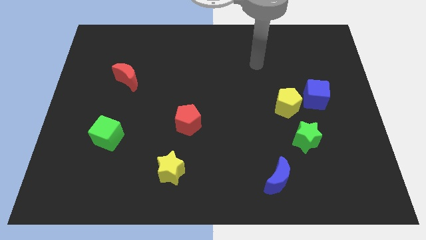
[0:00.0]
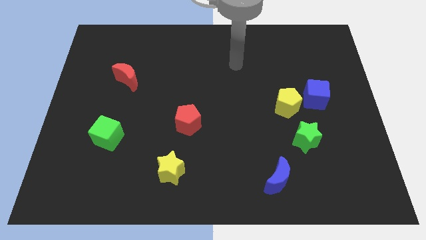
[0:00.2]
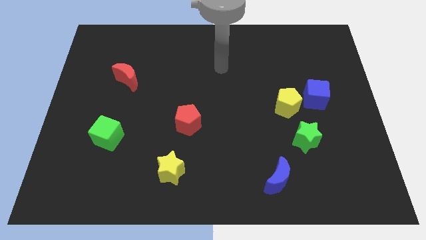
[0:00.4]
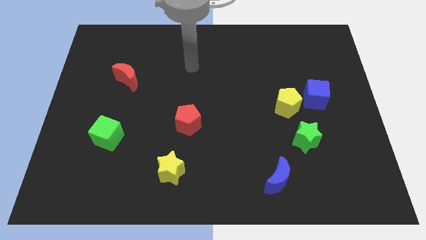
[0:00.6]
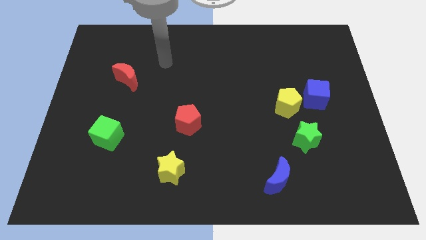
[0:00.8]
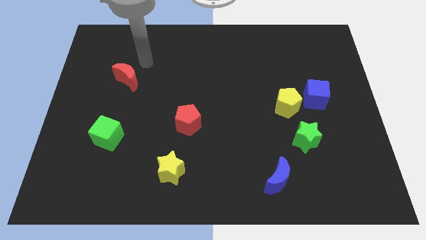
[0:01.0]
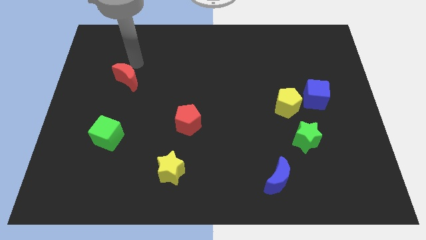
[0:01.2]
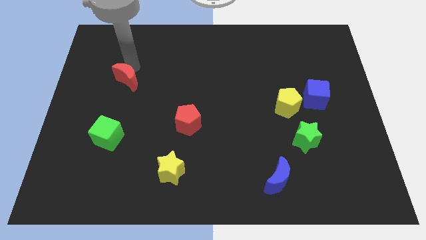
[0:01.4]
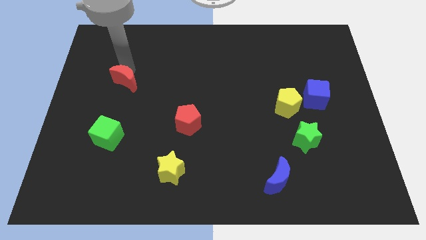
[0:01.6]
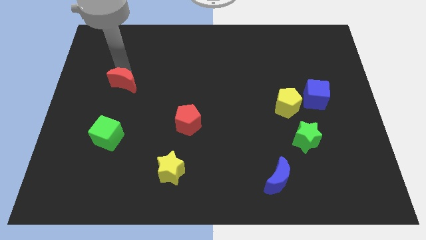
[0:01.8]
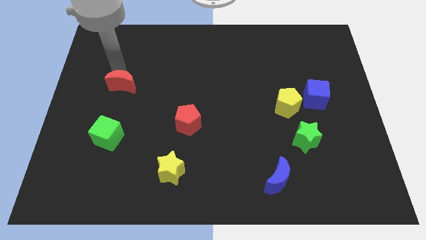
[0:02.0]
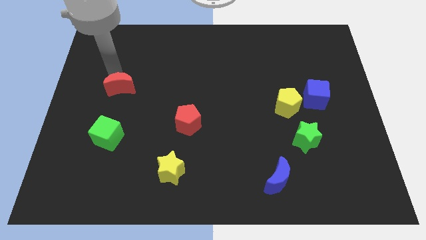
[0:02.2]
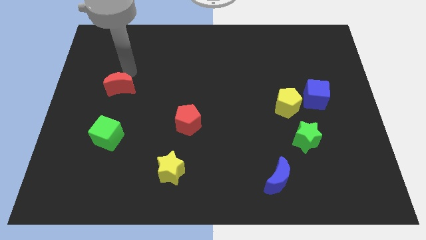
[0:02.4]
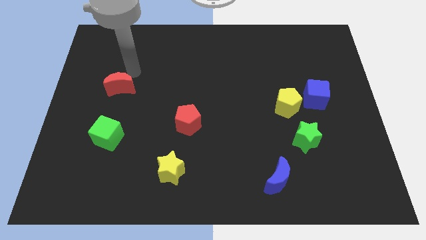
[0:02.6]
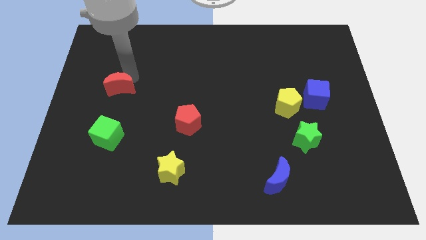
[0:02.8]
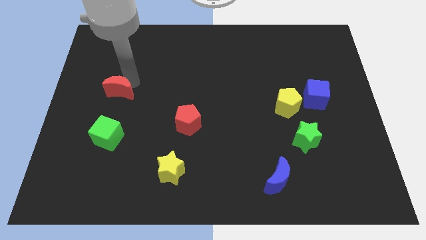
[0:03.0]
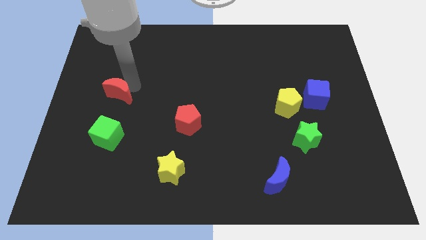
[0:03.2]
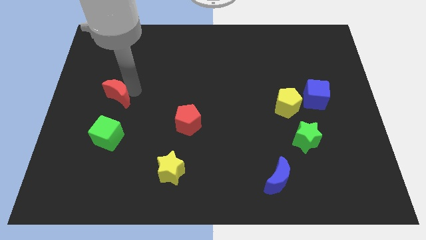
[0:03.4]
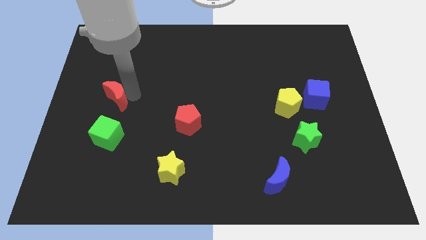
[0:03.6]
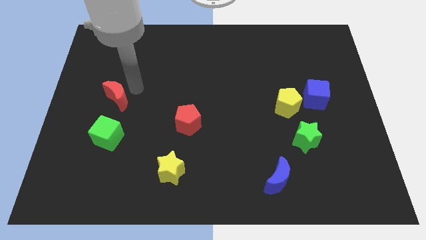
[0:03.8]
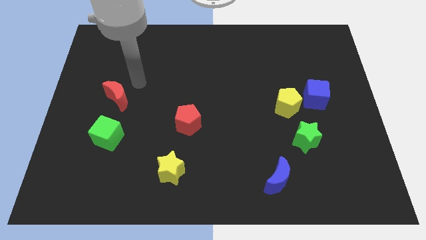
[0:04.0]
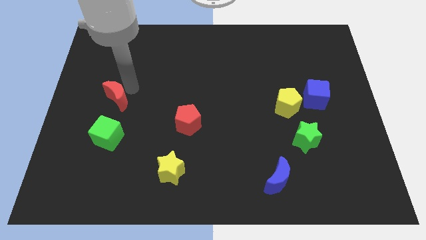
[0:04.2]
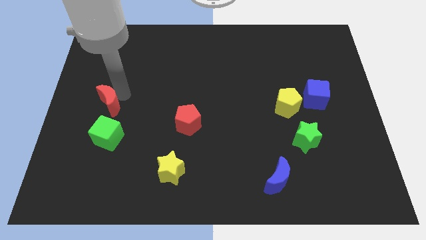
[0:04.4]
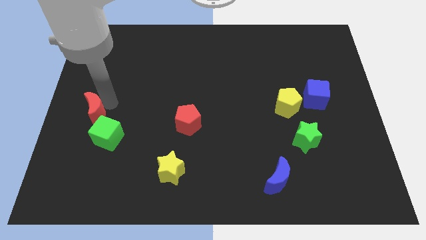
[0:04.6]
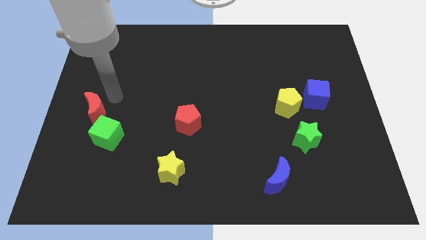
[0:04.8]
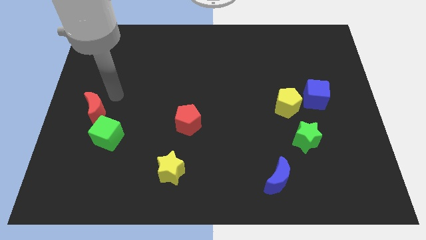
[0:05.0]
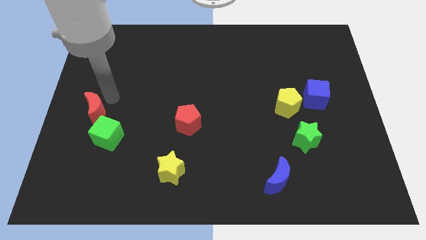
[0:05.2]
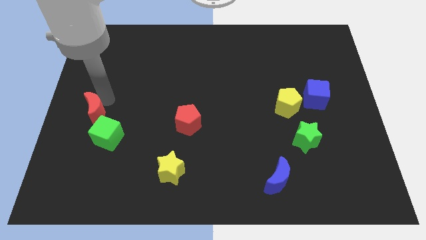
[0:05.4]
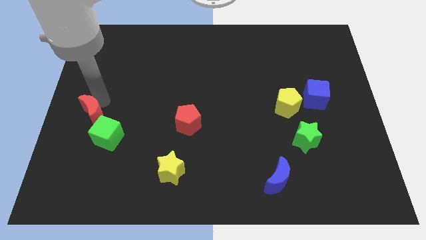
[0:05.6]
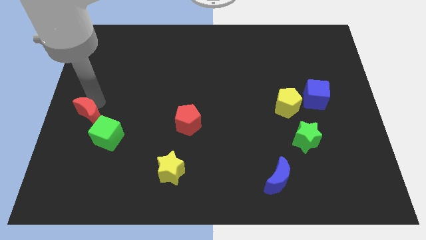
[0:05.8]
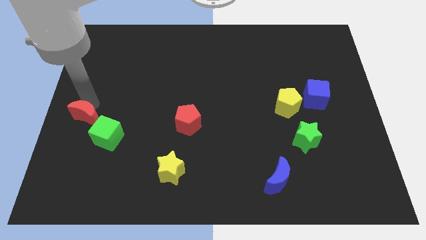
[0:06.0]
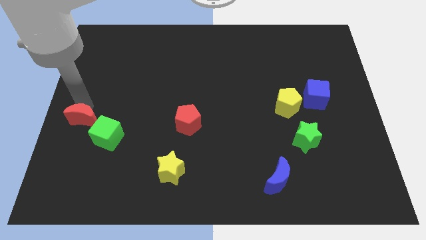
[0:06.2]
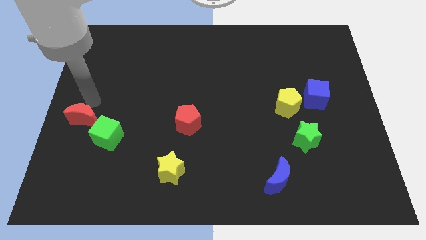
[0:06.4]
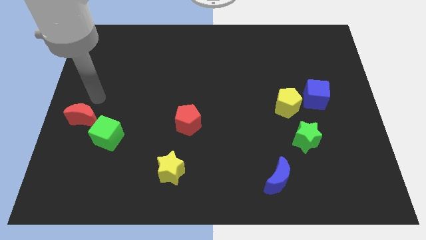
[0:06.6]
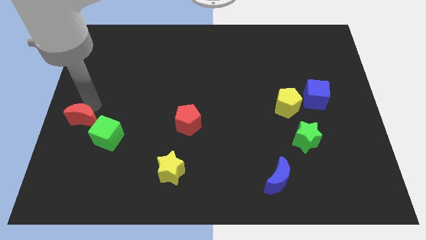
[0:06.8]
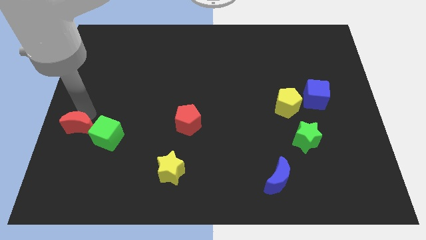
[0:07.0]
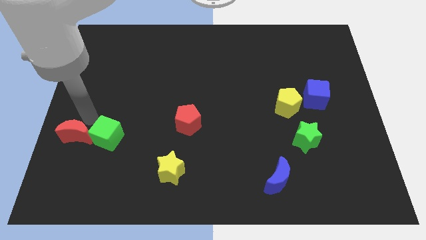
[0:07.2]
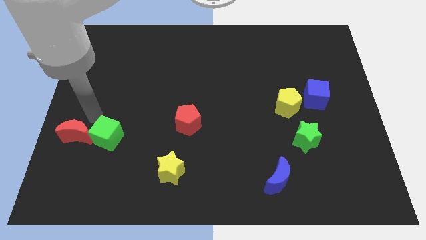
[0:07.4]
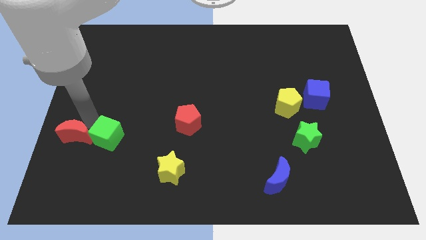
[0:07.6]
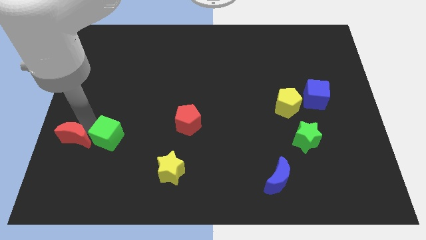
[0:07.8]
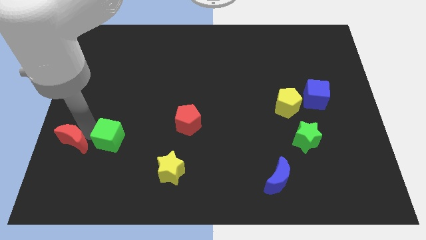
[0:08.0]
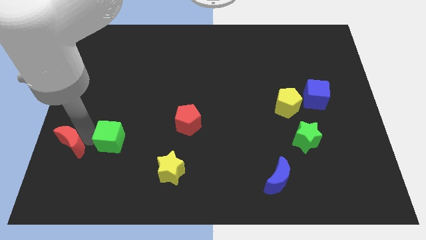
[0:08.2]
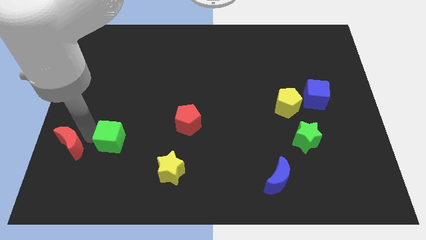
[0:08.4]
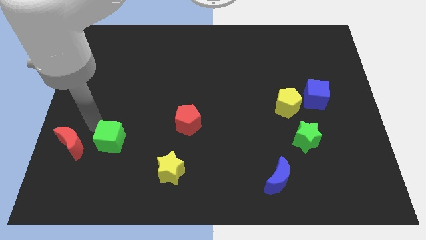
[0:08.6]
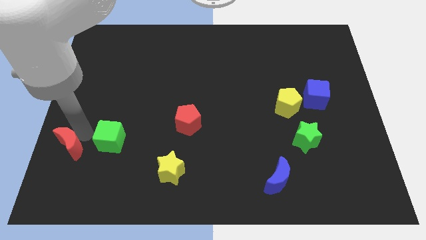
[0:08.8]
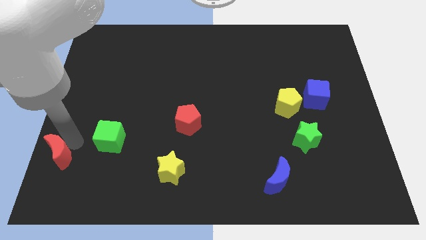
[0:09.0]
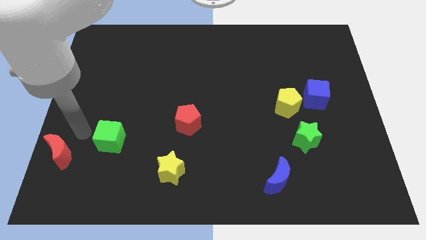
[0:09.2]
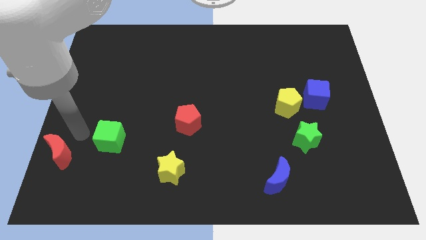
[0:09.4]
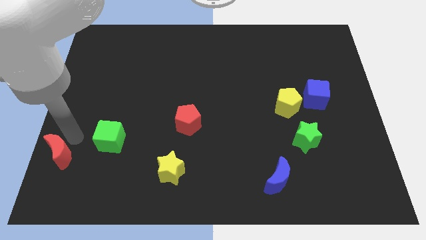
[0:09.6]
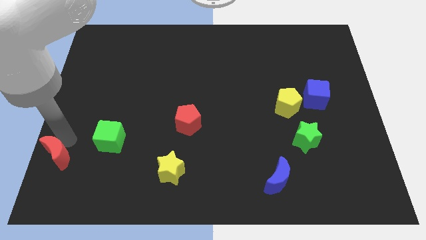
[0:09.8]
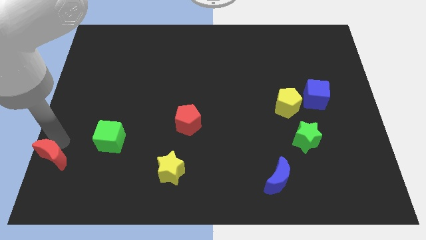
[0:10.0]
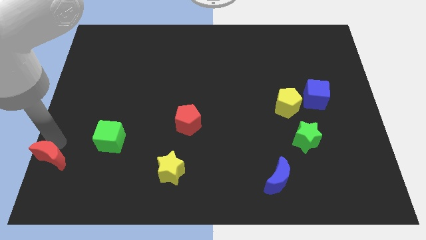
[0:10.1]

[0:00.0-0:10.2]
slide the red moon to the bottom left
